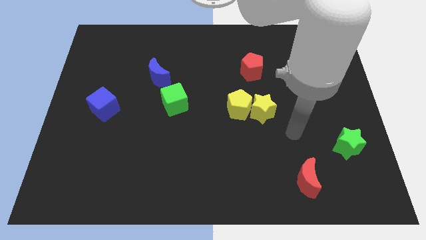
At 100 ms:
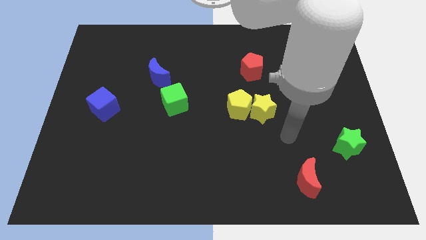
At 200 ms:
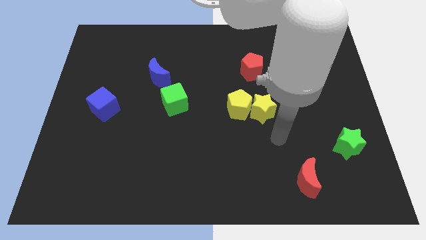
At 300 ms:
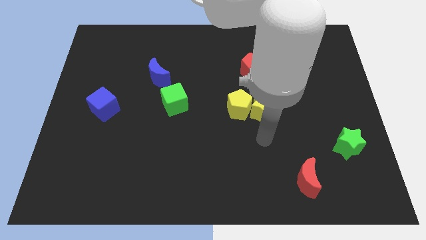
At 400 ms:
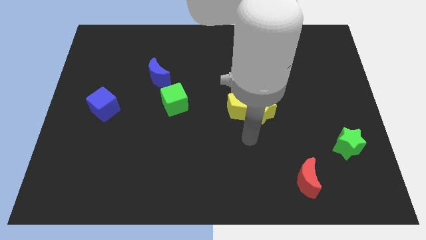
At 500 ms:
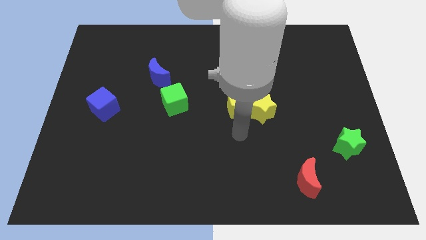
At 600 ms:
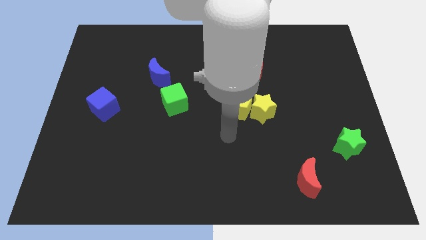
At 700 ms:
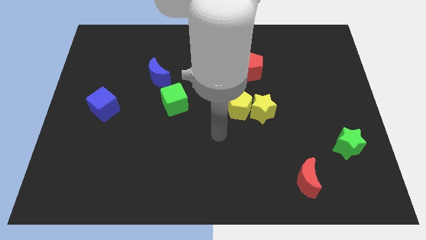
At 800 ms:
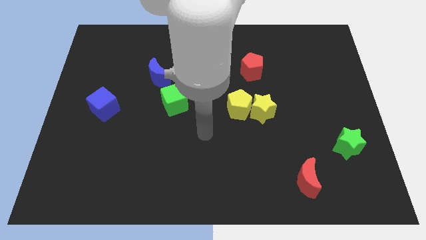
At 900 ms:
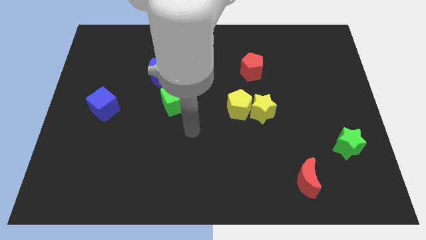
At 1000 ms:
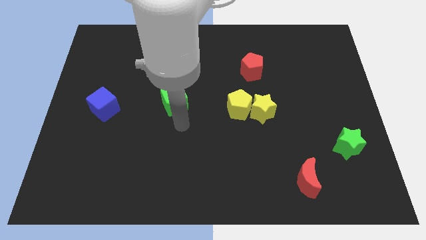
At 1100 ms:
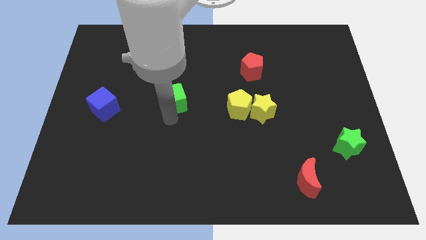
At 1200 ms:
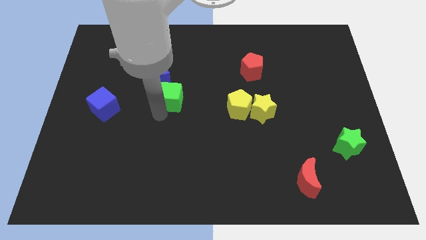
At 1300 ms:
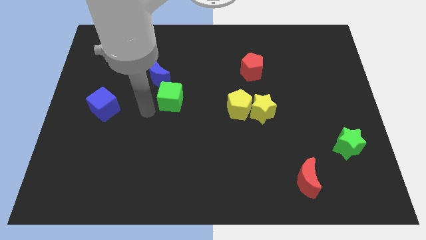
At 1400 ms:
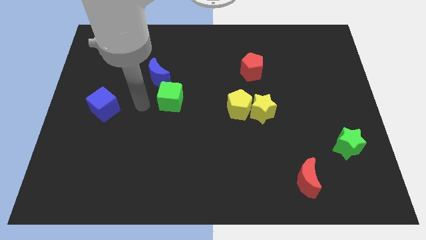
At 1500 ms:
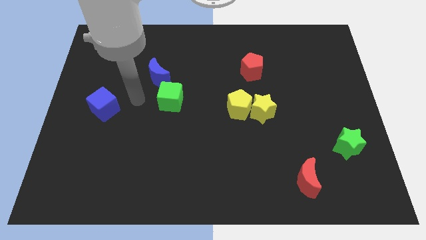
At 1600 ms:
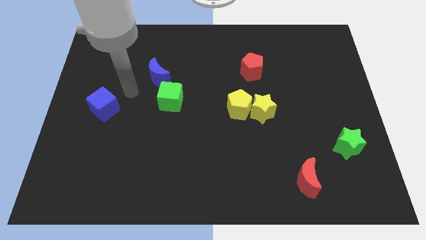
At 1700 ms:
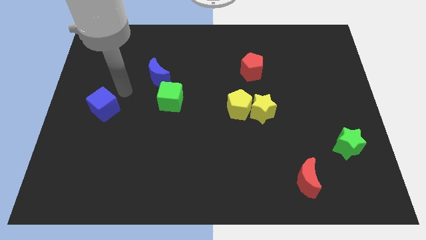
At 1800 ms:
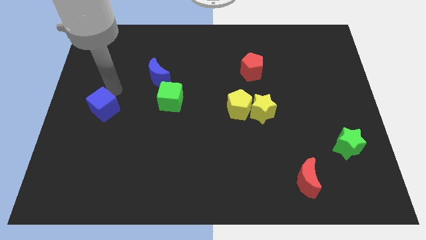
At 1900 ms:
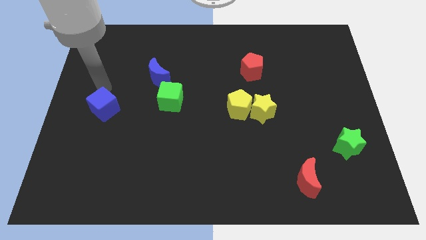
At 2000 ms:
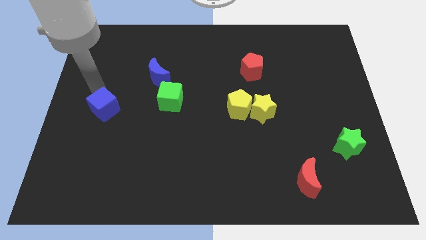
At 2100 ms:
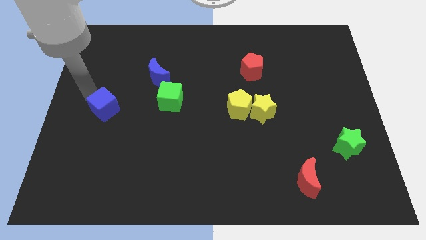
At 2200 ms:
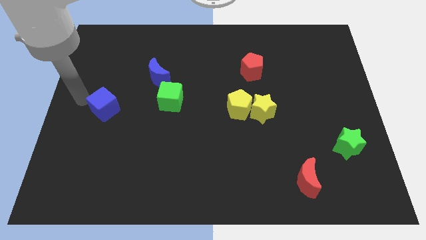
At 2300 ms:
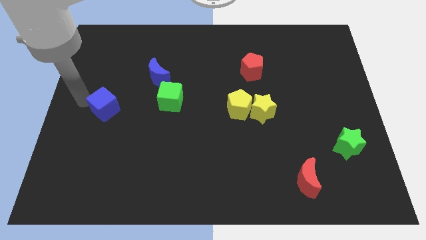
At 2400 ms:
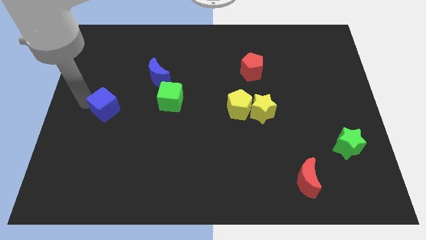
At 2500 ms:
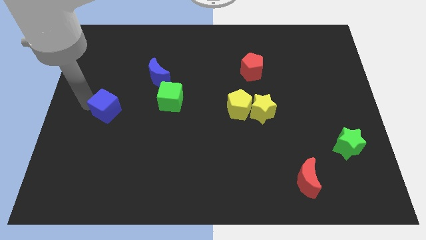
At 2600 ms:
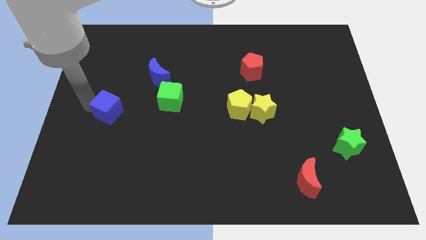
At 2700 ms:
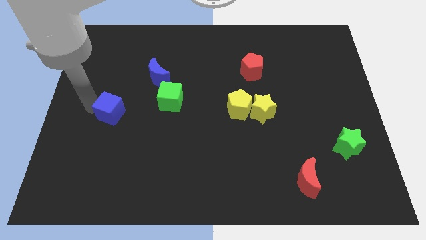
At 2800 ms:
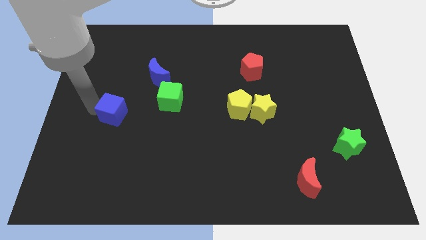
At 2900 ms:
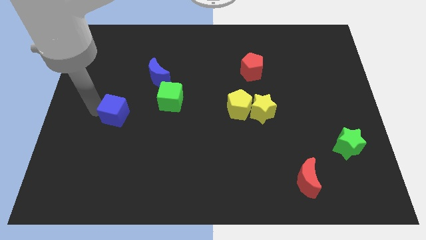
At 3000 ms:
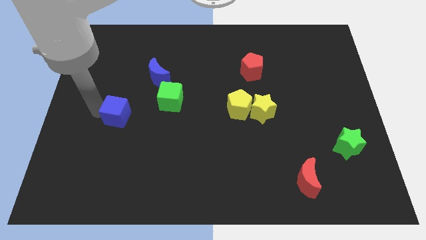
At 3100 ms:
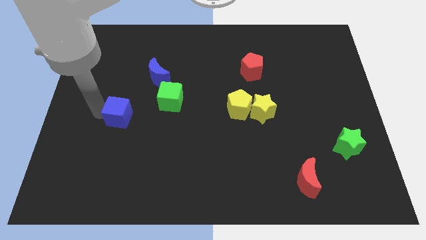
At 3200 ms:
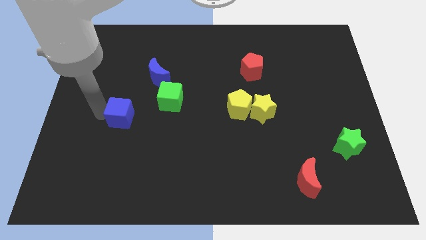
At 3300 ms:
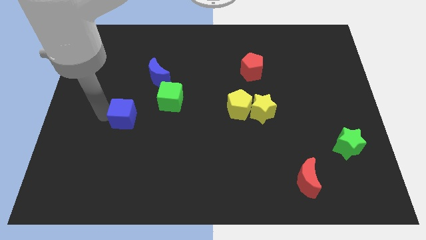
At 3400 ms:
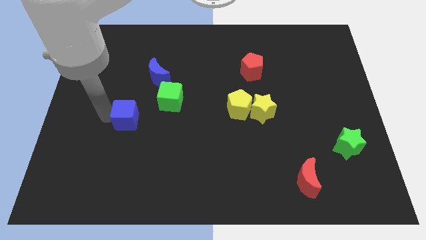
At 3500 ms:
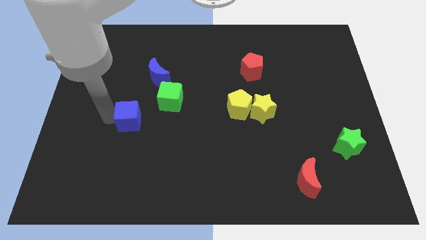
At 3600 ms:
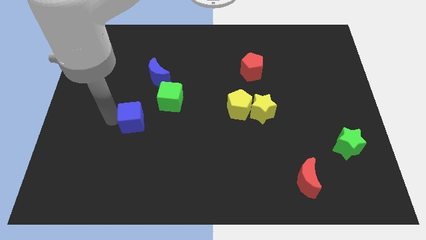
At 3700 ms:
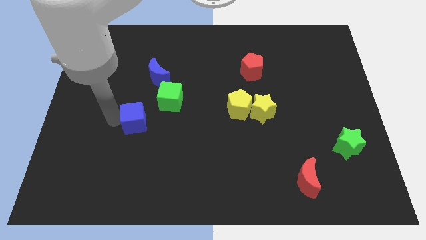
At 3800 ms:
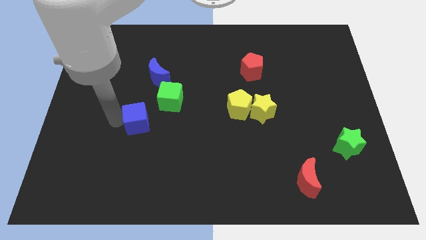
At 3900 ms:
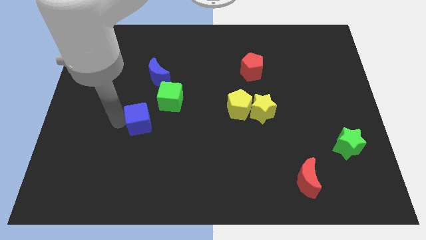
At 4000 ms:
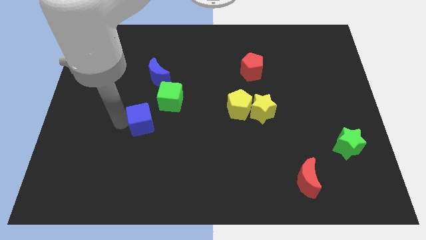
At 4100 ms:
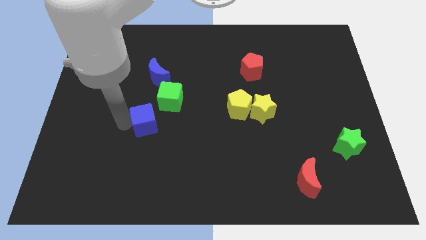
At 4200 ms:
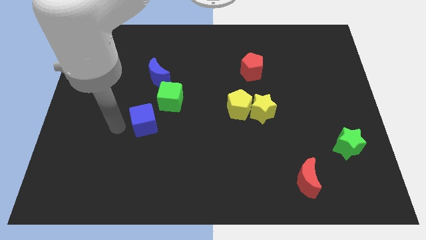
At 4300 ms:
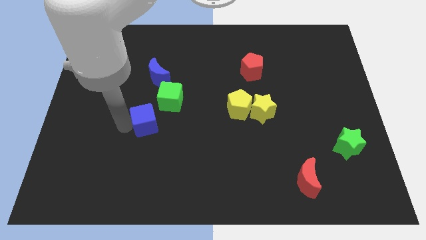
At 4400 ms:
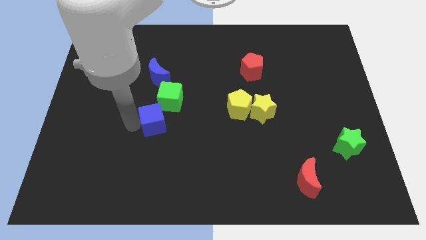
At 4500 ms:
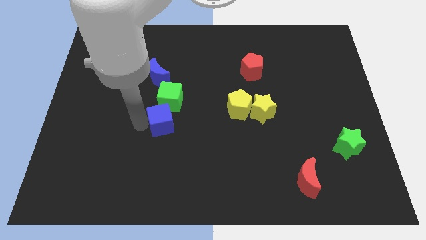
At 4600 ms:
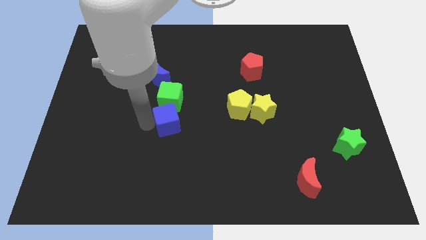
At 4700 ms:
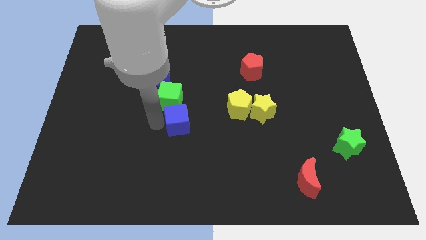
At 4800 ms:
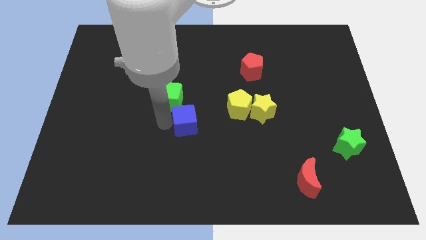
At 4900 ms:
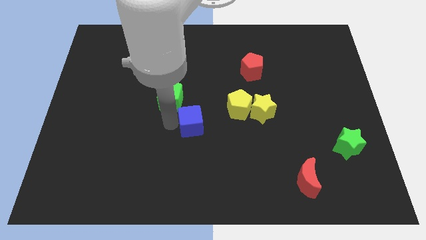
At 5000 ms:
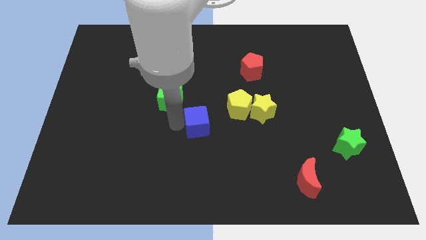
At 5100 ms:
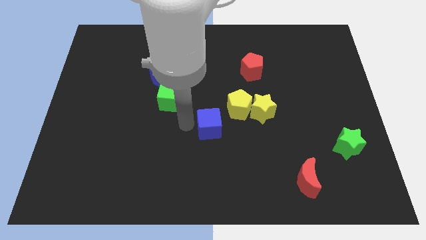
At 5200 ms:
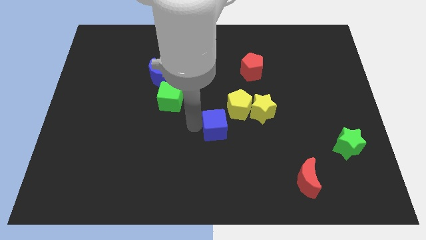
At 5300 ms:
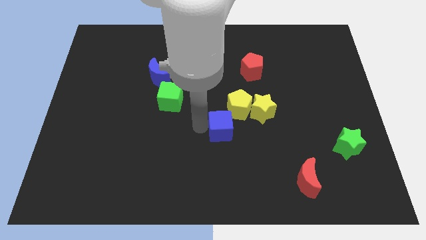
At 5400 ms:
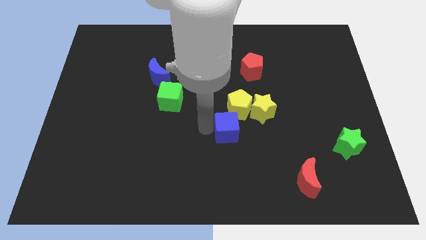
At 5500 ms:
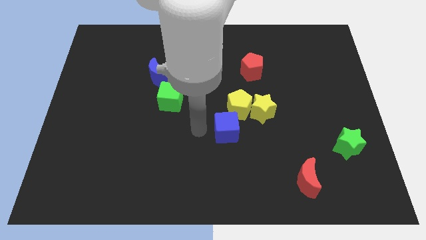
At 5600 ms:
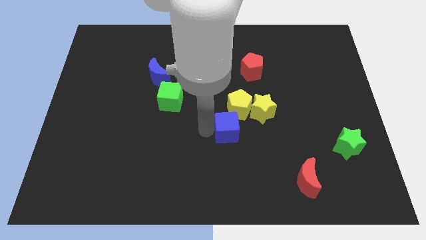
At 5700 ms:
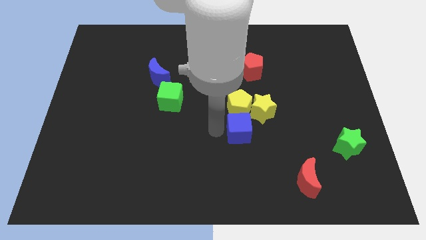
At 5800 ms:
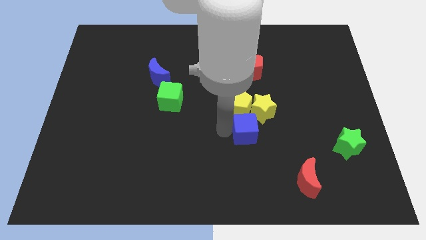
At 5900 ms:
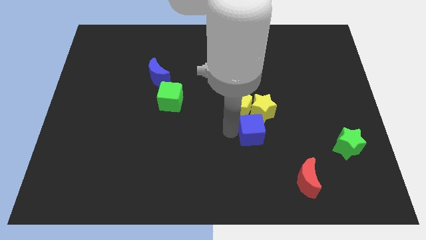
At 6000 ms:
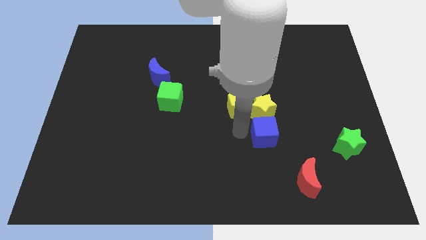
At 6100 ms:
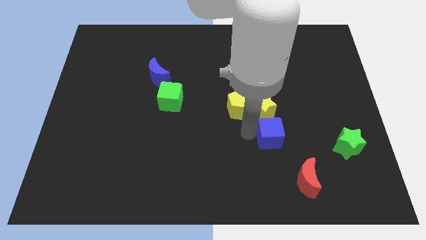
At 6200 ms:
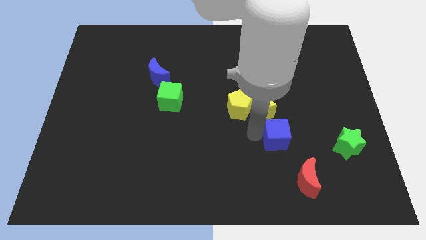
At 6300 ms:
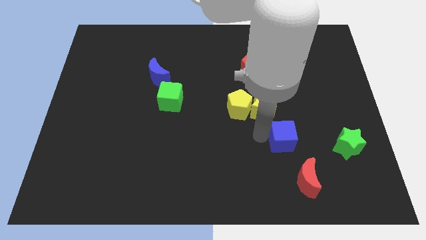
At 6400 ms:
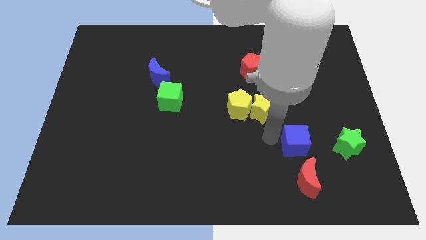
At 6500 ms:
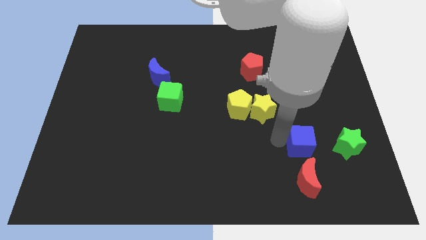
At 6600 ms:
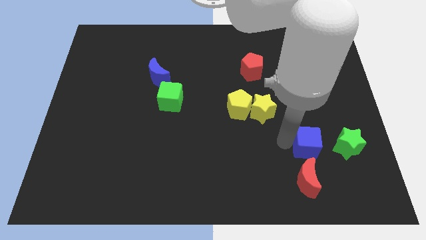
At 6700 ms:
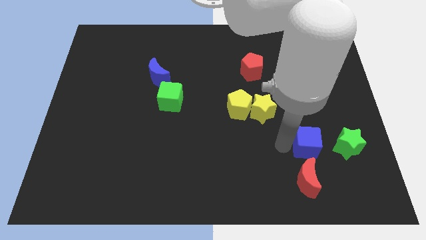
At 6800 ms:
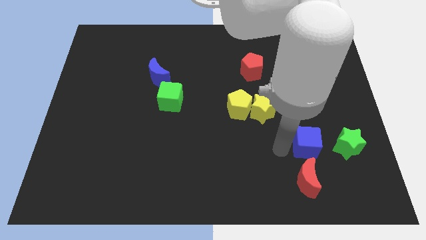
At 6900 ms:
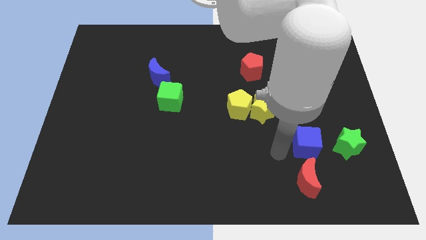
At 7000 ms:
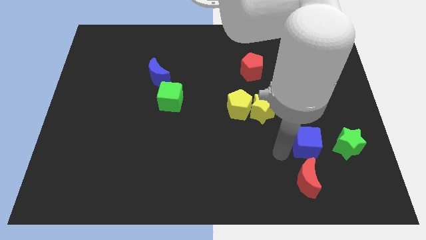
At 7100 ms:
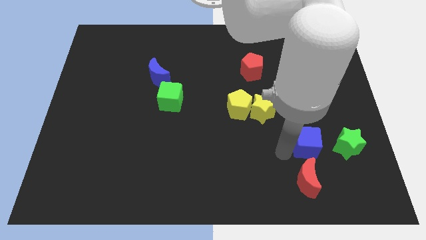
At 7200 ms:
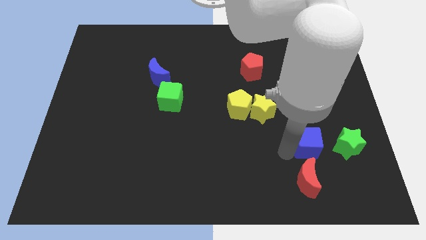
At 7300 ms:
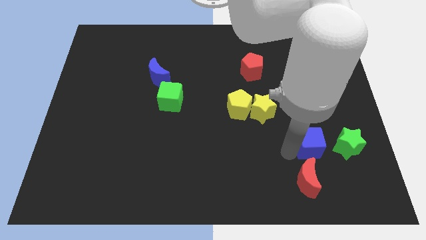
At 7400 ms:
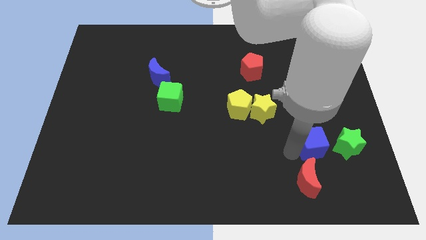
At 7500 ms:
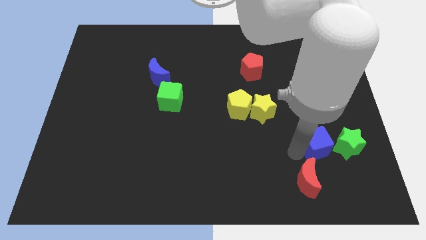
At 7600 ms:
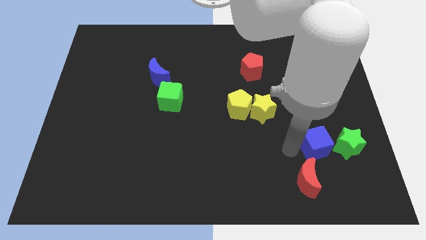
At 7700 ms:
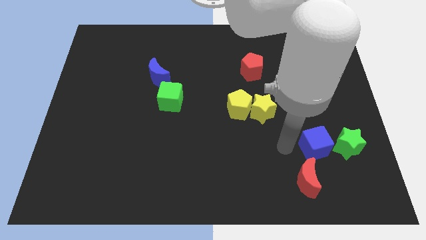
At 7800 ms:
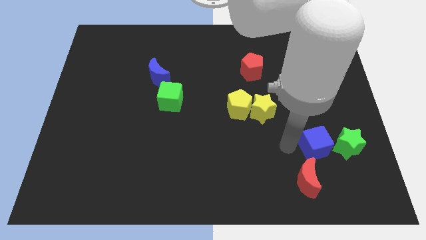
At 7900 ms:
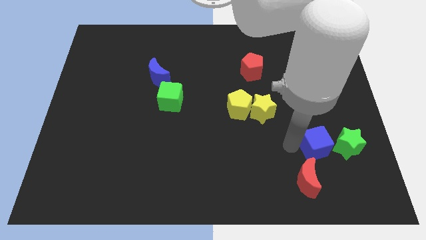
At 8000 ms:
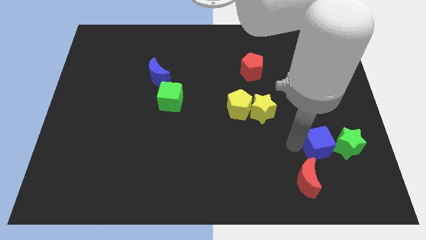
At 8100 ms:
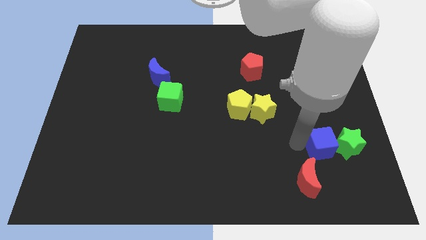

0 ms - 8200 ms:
slide the blue cube to the green star
